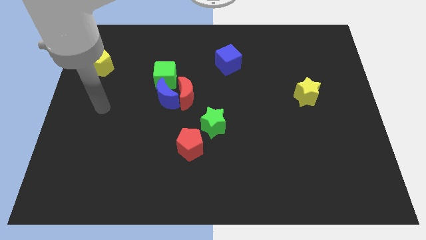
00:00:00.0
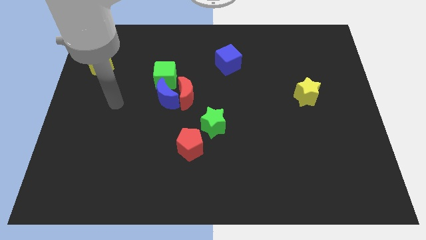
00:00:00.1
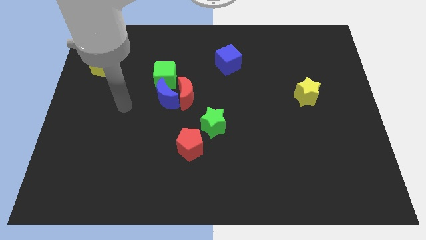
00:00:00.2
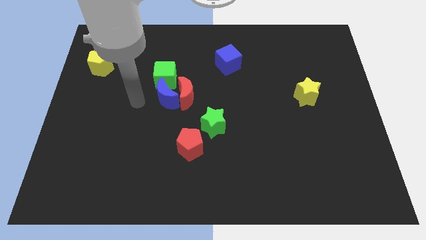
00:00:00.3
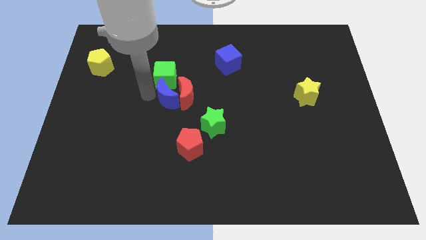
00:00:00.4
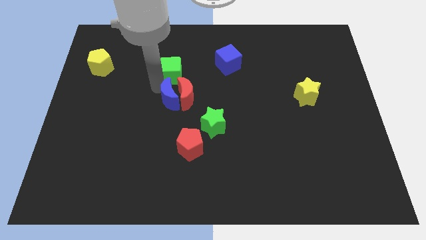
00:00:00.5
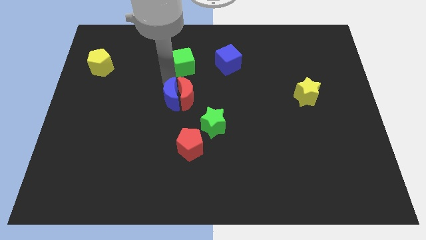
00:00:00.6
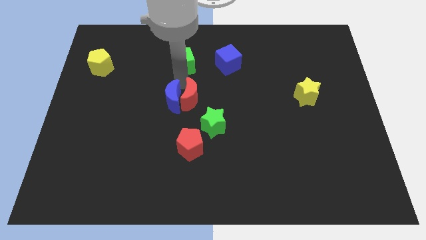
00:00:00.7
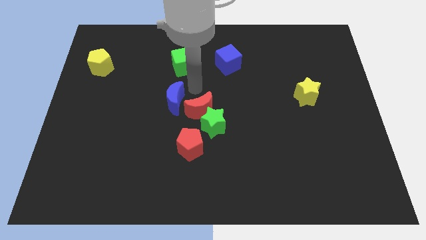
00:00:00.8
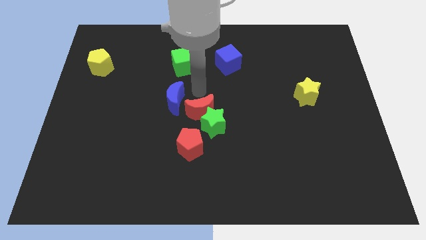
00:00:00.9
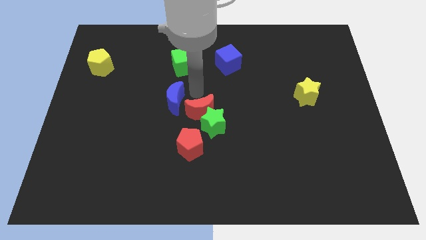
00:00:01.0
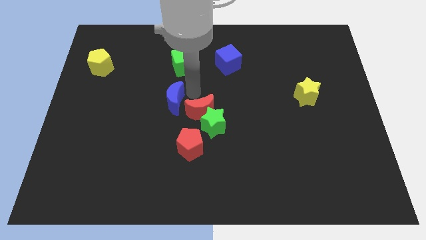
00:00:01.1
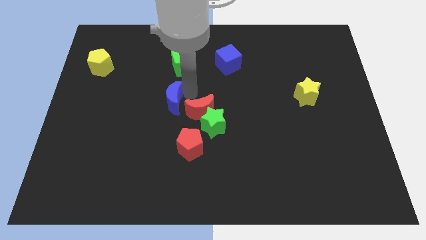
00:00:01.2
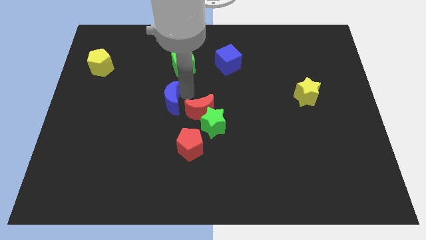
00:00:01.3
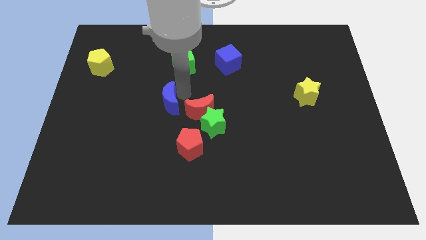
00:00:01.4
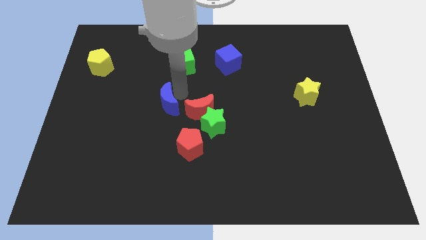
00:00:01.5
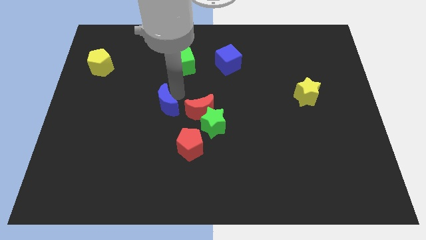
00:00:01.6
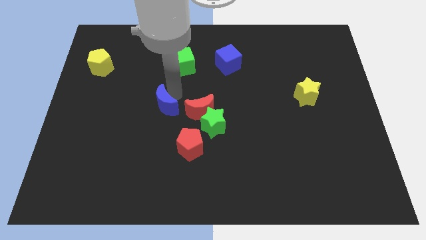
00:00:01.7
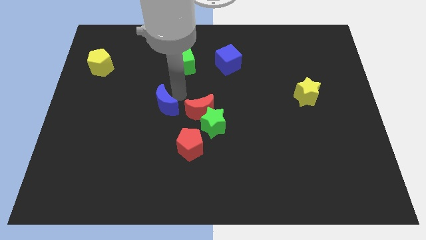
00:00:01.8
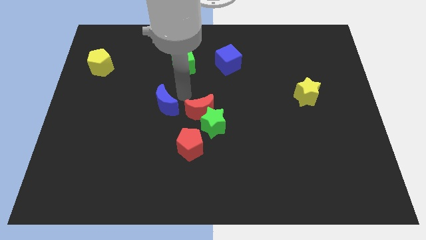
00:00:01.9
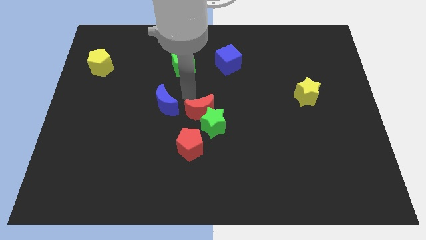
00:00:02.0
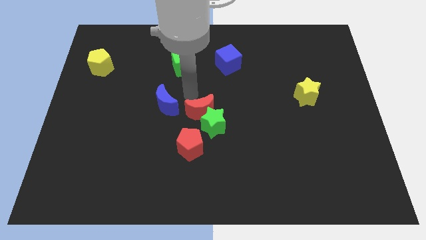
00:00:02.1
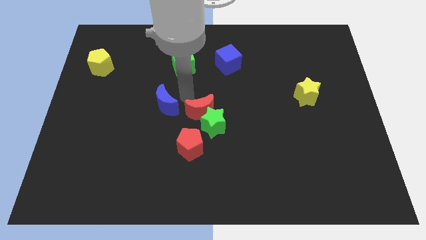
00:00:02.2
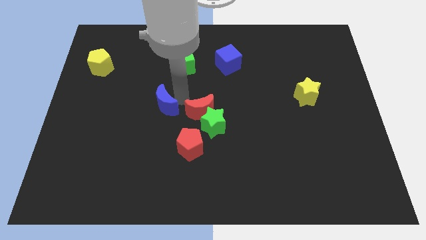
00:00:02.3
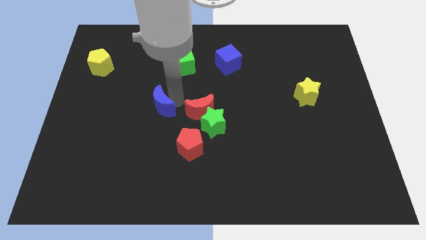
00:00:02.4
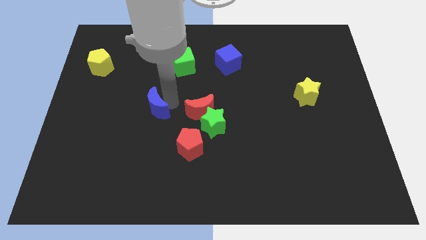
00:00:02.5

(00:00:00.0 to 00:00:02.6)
pull the blue moon apart from the red moon and green cube

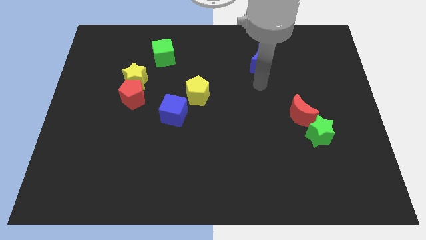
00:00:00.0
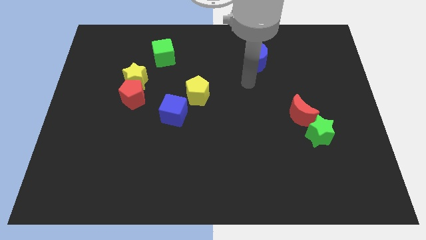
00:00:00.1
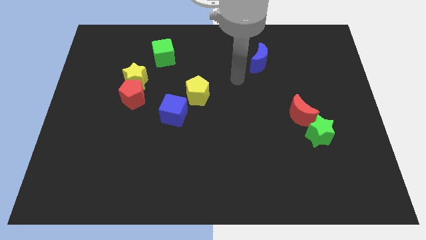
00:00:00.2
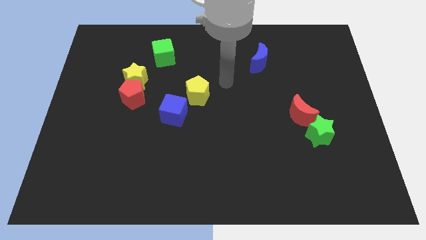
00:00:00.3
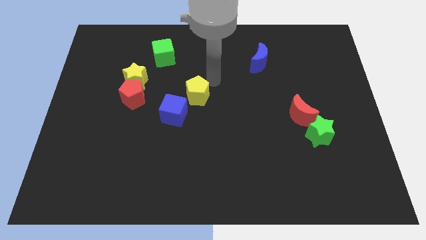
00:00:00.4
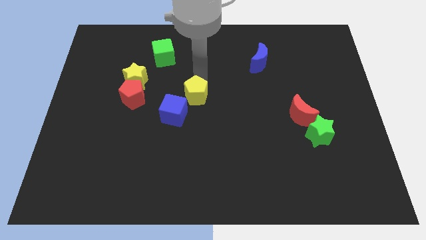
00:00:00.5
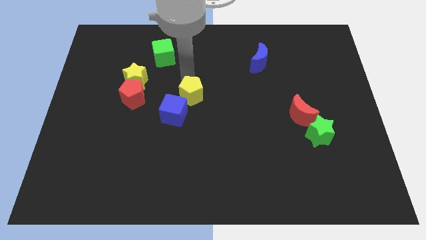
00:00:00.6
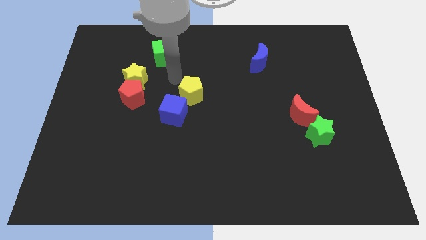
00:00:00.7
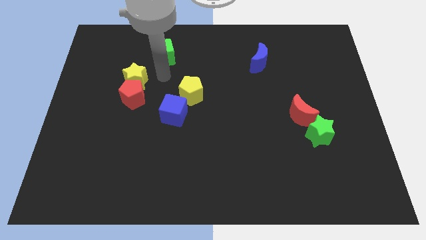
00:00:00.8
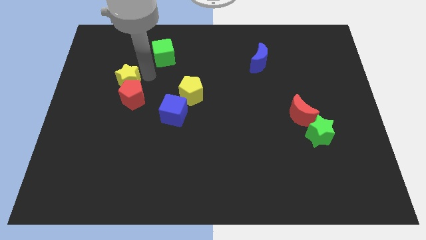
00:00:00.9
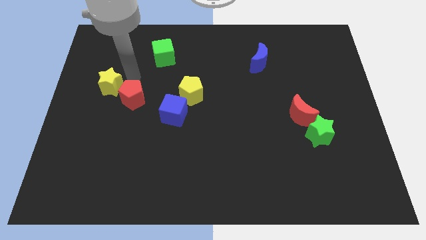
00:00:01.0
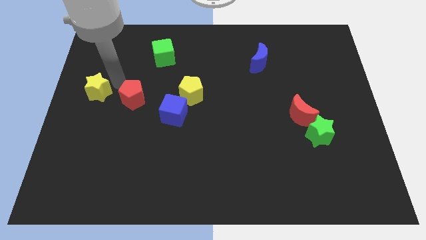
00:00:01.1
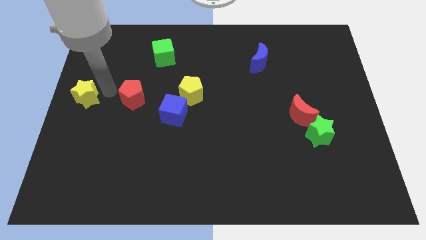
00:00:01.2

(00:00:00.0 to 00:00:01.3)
move the red pentagon away from the yellow star

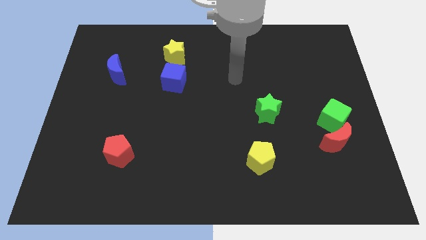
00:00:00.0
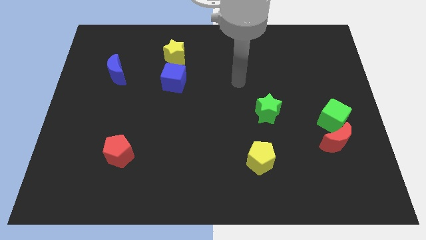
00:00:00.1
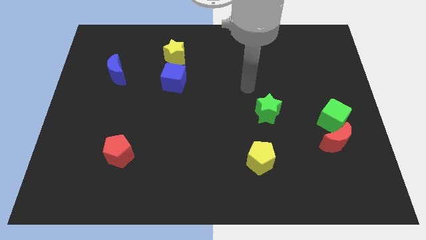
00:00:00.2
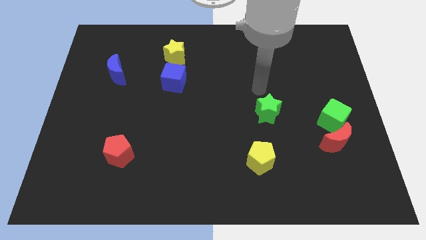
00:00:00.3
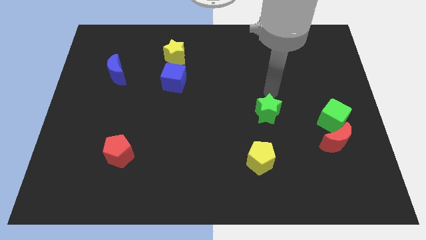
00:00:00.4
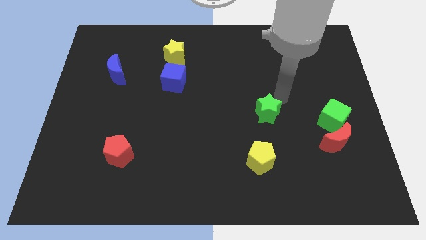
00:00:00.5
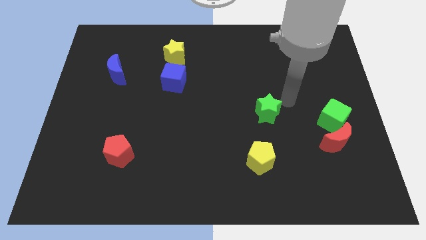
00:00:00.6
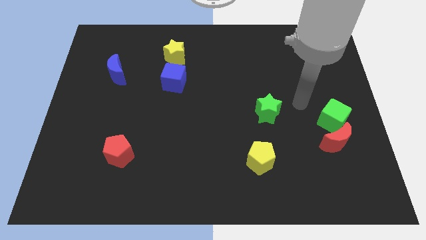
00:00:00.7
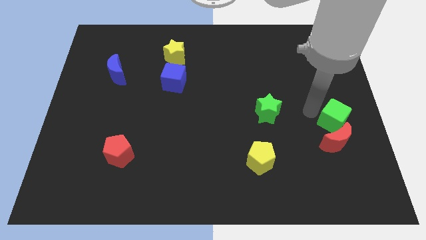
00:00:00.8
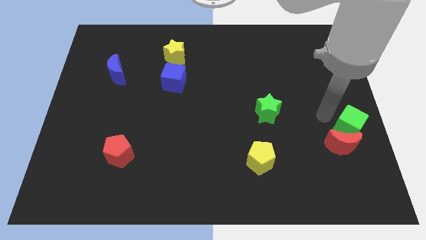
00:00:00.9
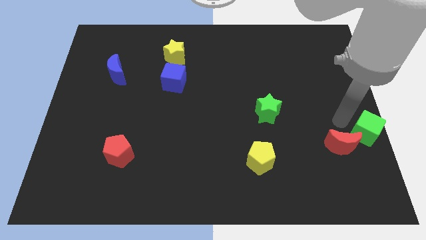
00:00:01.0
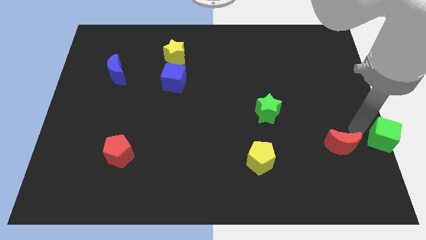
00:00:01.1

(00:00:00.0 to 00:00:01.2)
pull the red moon apart from the green cube

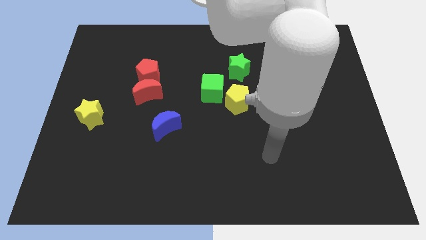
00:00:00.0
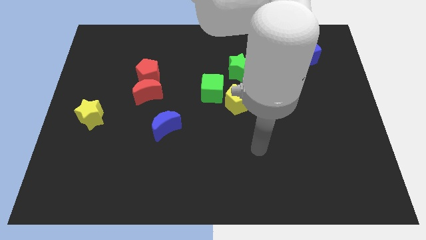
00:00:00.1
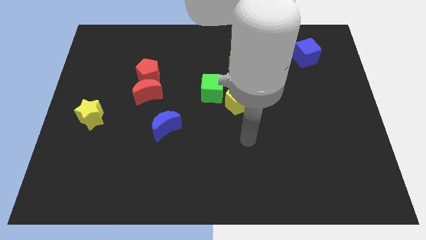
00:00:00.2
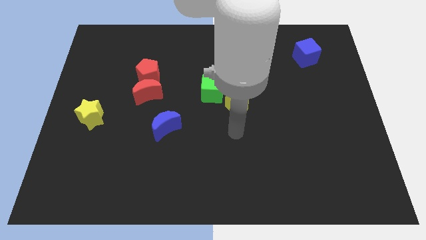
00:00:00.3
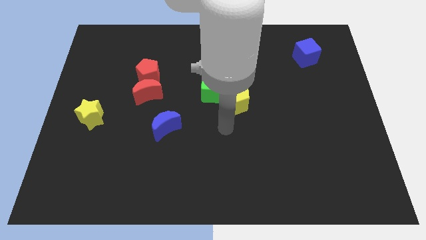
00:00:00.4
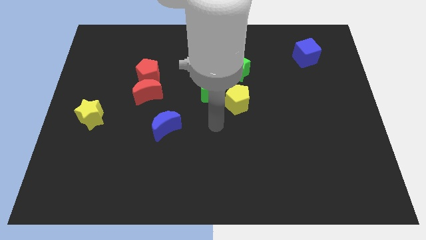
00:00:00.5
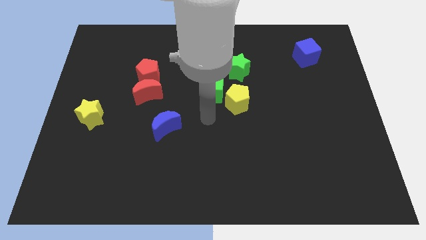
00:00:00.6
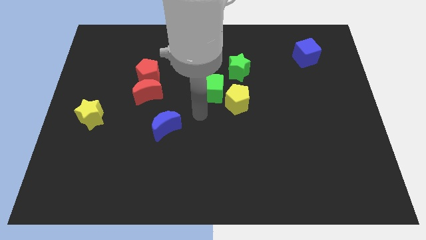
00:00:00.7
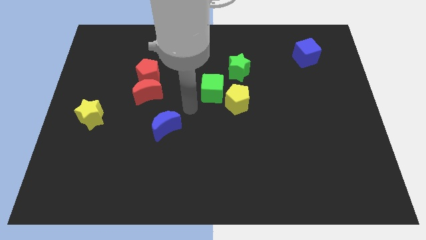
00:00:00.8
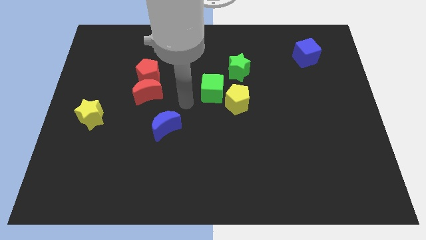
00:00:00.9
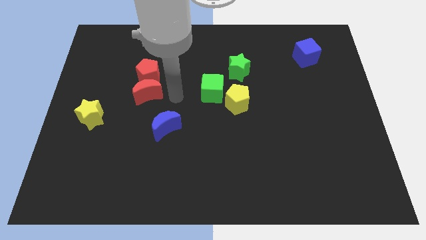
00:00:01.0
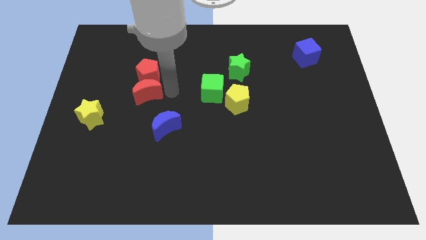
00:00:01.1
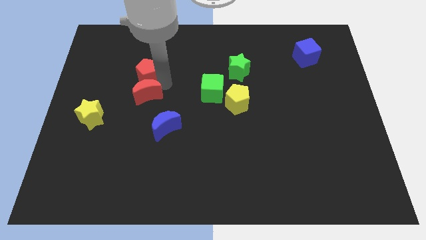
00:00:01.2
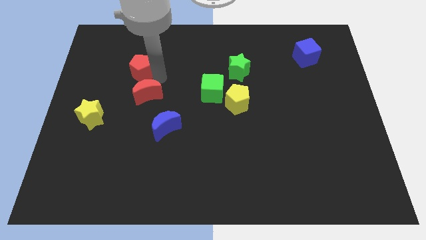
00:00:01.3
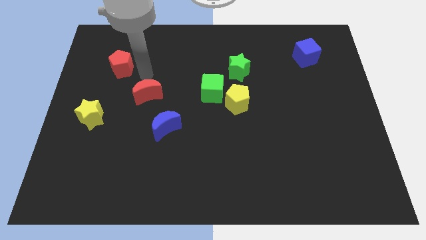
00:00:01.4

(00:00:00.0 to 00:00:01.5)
pull the red moon apart from the red pentagon

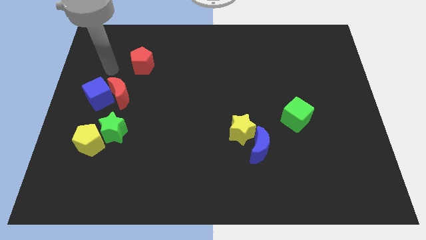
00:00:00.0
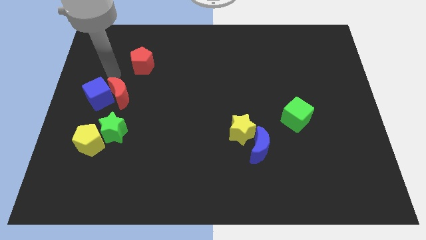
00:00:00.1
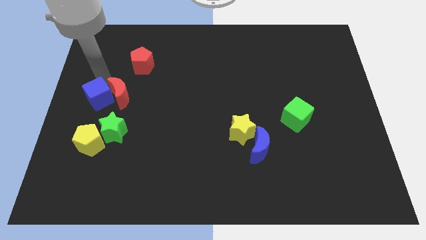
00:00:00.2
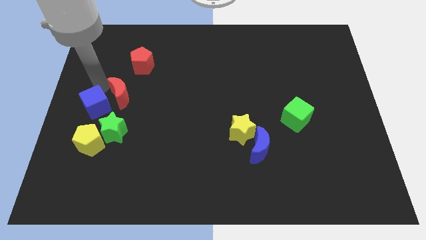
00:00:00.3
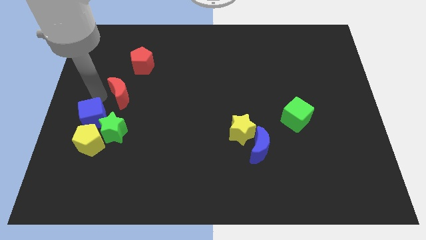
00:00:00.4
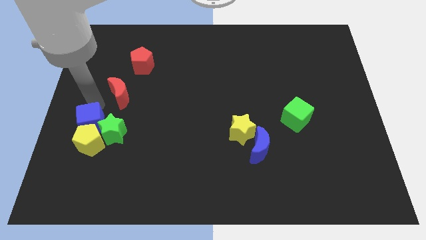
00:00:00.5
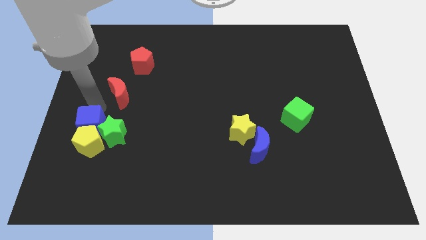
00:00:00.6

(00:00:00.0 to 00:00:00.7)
move the red moon away from the blue cube

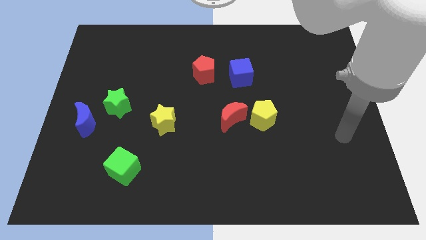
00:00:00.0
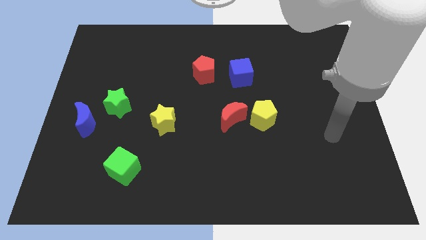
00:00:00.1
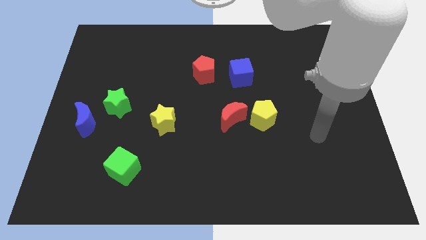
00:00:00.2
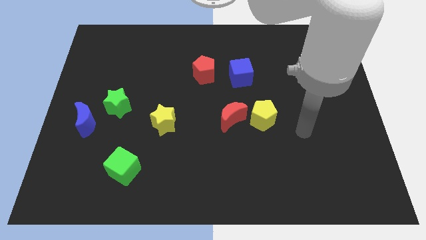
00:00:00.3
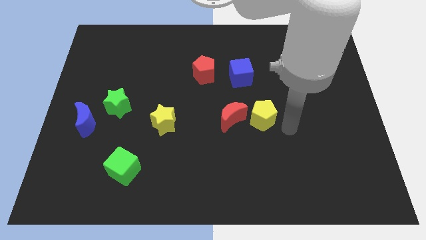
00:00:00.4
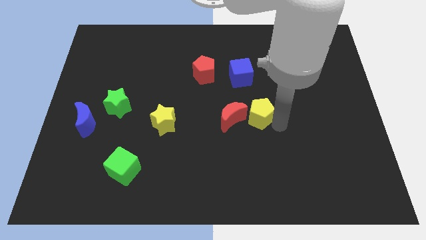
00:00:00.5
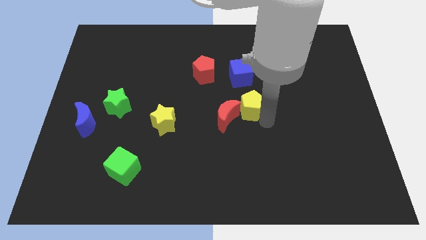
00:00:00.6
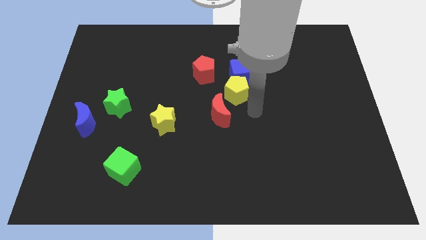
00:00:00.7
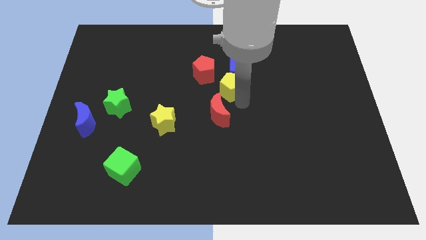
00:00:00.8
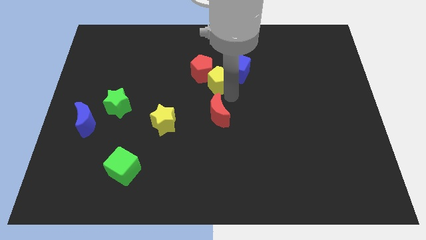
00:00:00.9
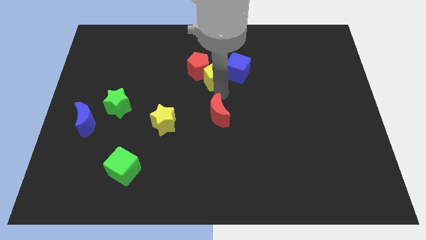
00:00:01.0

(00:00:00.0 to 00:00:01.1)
separate the red moon from the yellow pentagon

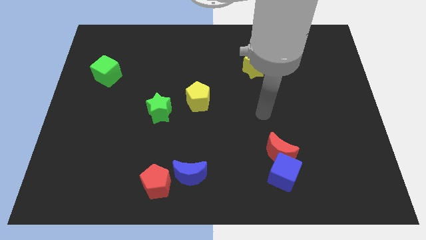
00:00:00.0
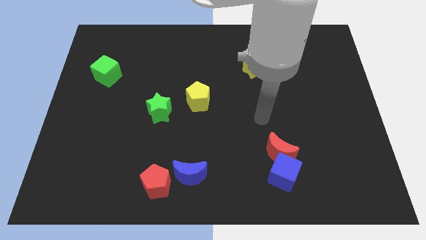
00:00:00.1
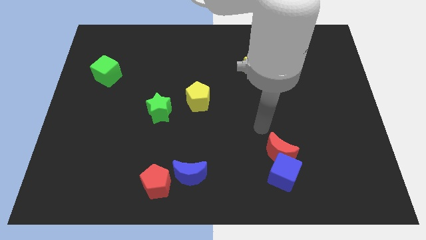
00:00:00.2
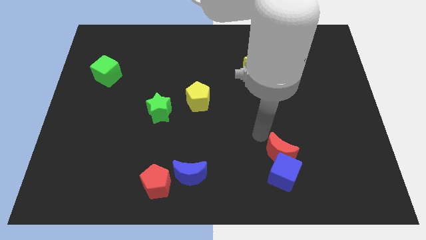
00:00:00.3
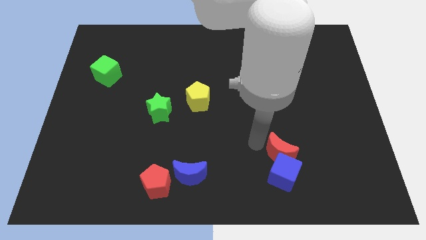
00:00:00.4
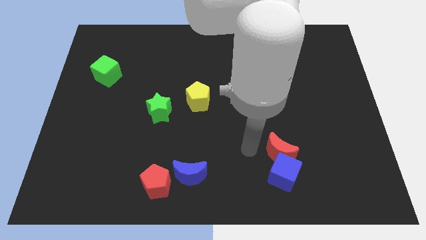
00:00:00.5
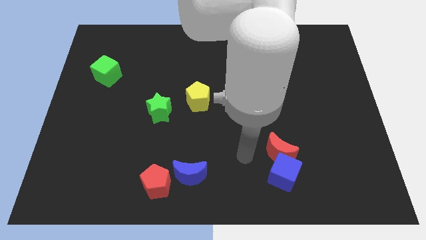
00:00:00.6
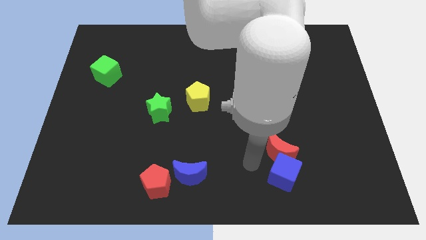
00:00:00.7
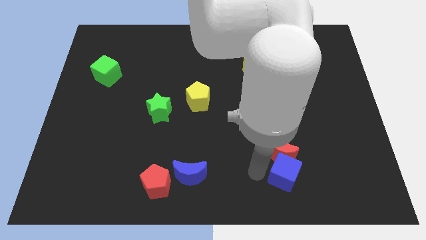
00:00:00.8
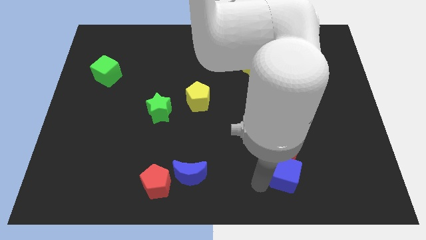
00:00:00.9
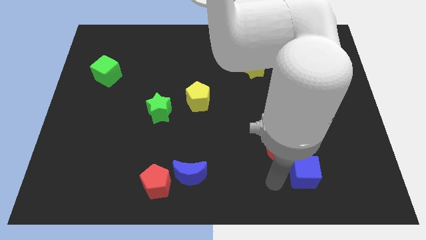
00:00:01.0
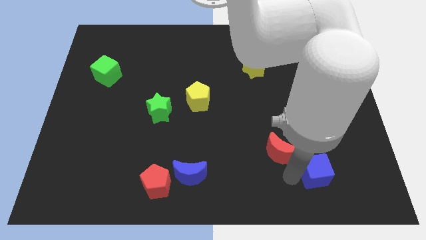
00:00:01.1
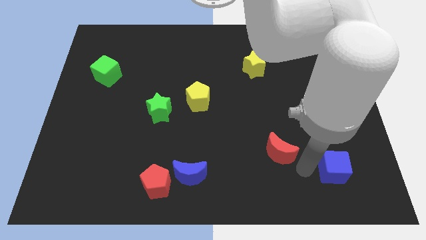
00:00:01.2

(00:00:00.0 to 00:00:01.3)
separate the red moon from the blue cube
